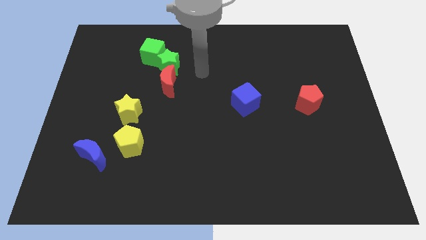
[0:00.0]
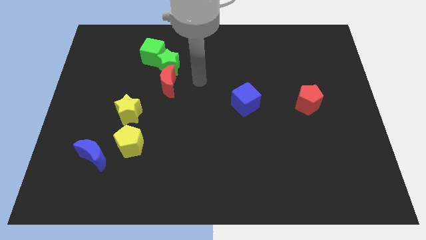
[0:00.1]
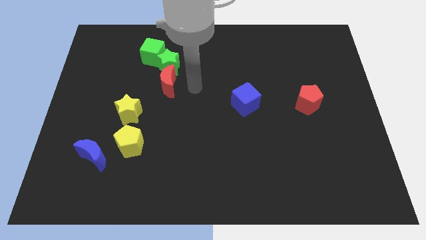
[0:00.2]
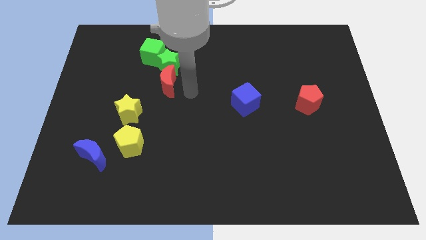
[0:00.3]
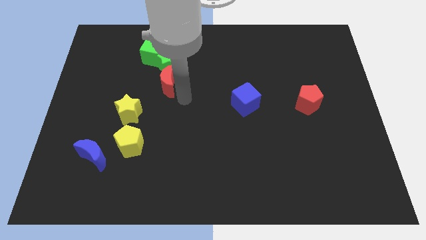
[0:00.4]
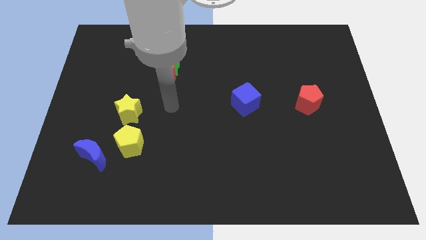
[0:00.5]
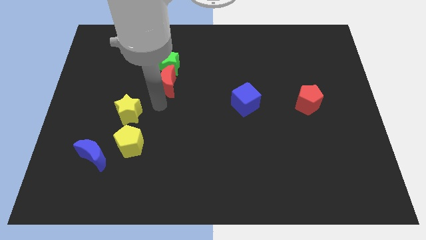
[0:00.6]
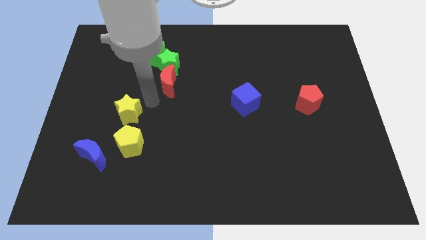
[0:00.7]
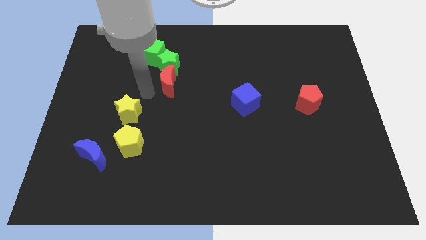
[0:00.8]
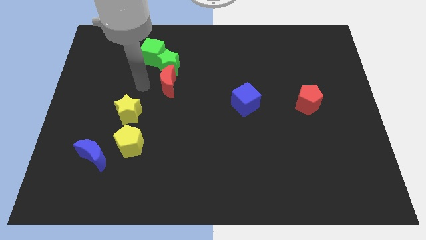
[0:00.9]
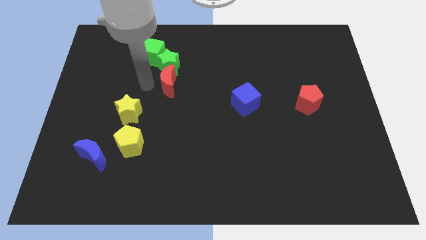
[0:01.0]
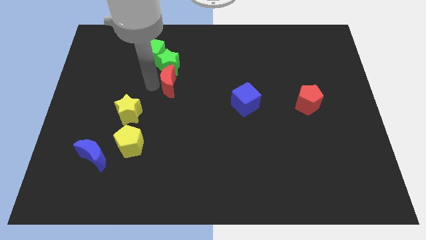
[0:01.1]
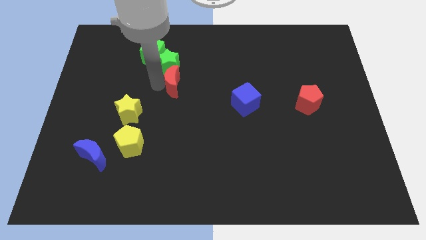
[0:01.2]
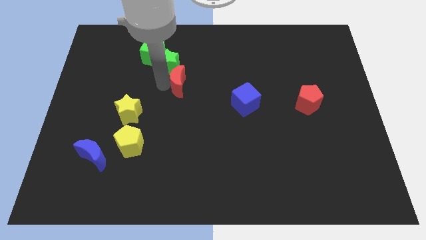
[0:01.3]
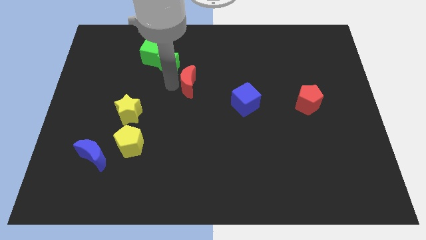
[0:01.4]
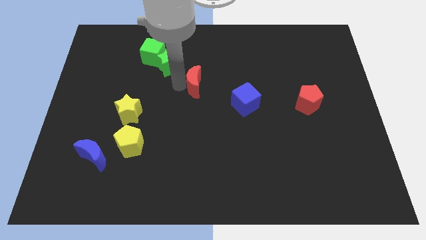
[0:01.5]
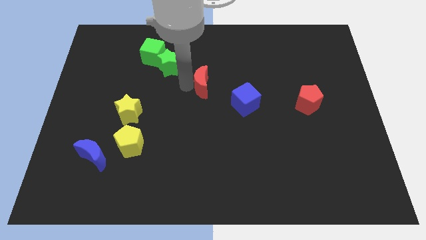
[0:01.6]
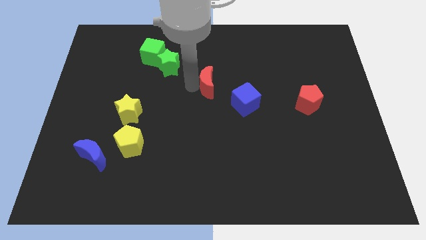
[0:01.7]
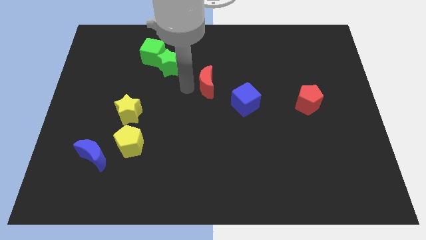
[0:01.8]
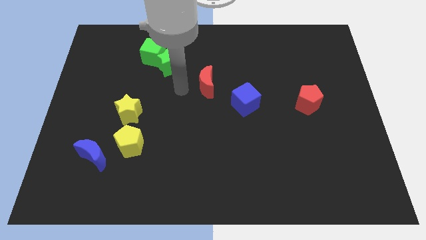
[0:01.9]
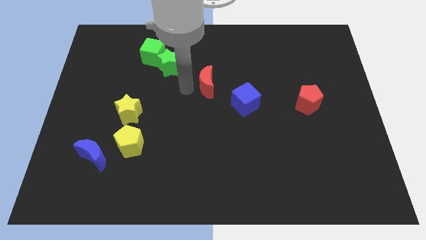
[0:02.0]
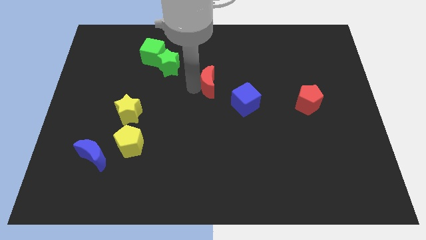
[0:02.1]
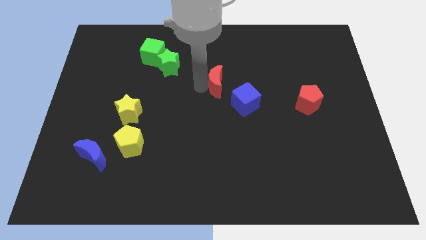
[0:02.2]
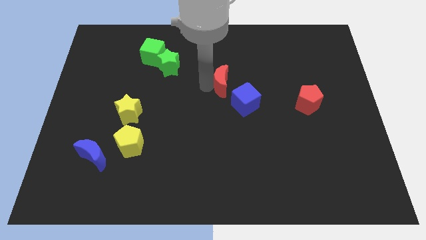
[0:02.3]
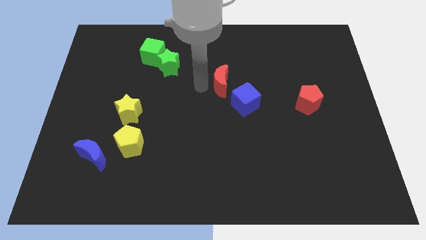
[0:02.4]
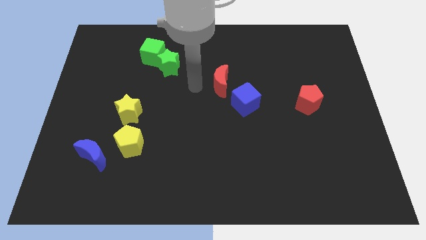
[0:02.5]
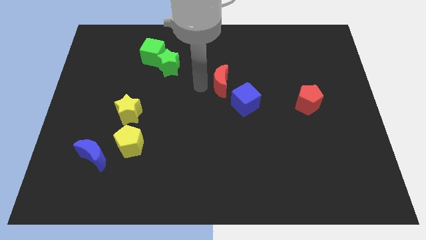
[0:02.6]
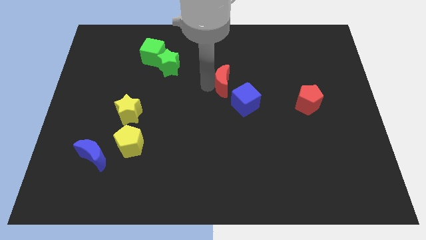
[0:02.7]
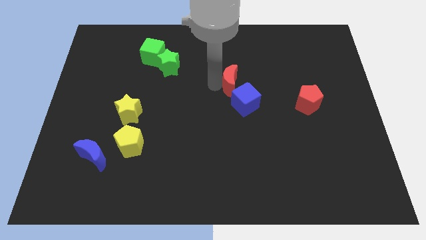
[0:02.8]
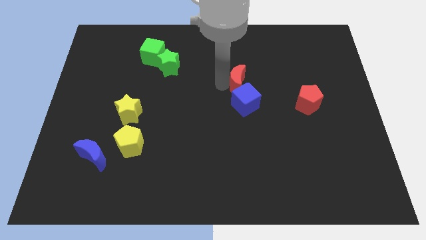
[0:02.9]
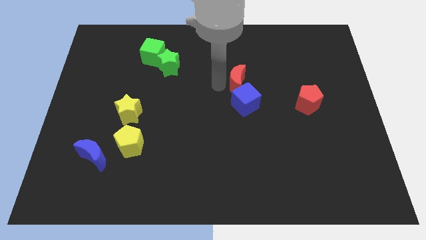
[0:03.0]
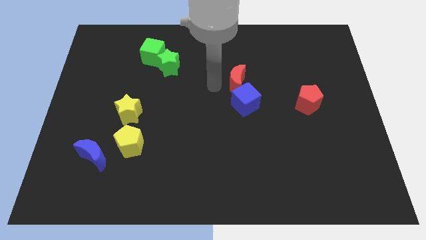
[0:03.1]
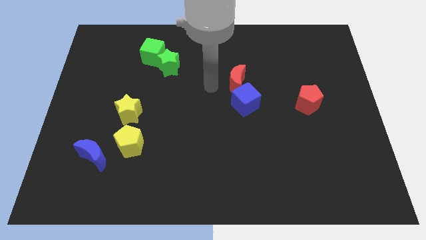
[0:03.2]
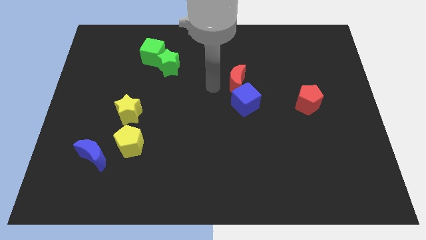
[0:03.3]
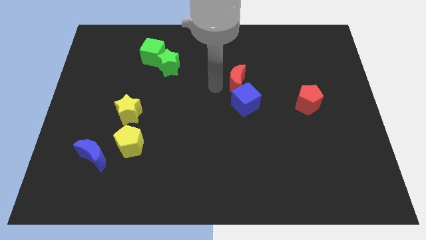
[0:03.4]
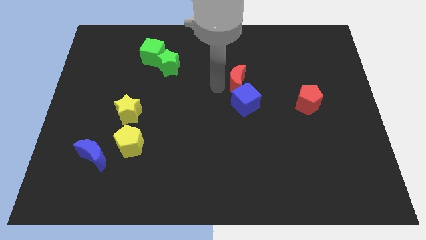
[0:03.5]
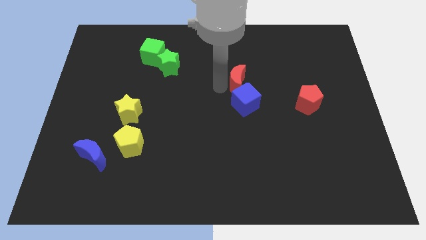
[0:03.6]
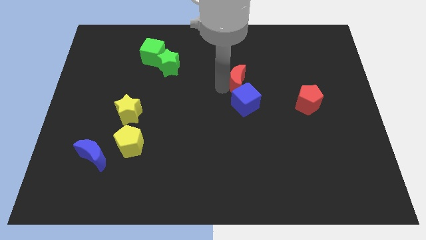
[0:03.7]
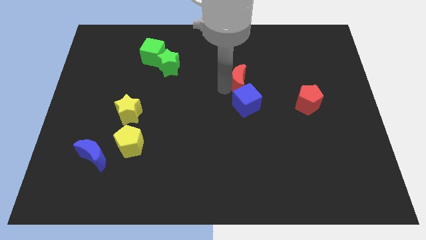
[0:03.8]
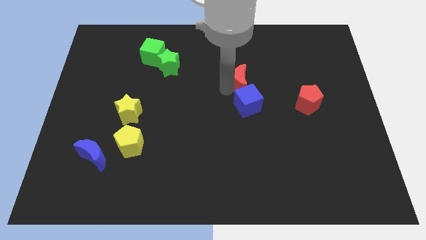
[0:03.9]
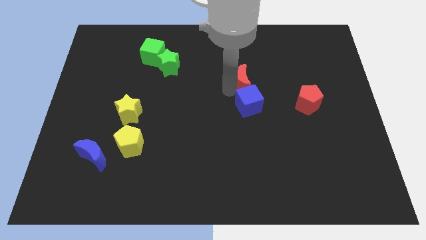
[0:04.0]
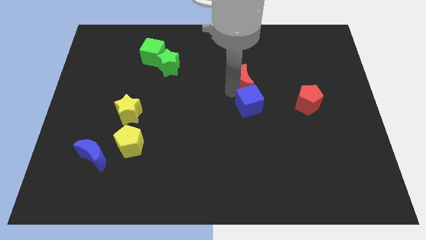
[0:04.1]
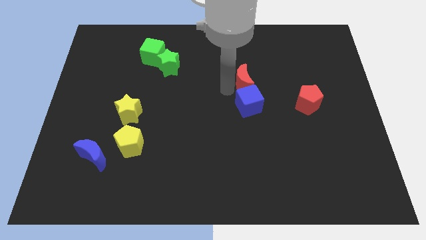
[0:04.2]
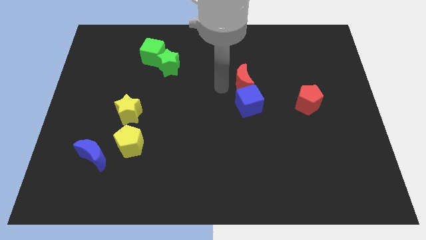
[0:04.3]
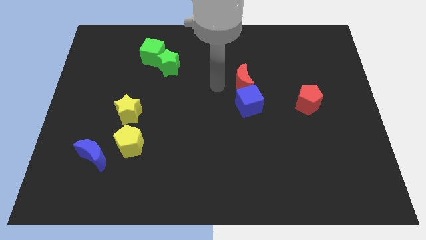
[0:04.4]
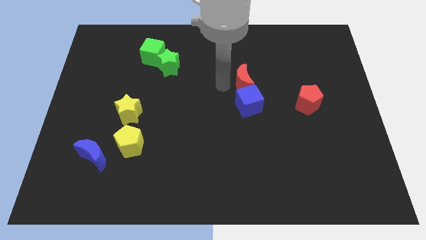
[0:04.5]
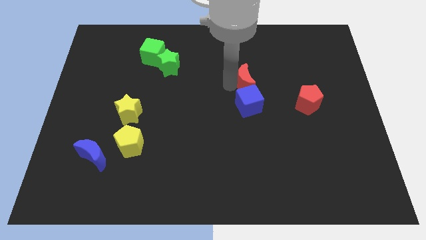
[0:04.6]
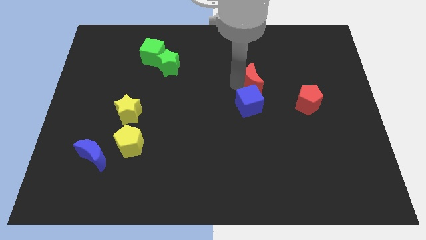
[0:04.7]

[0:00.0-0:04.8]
move the red moon right

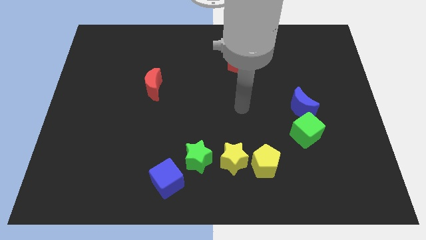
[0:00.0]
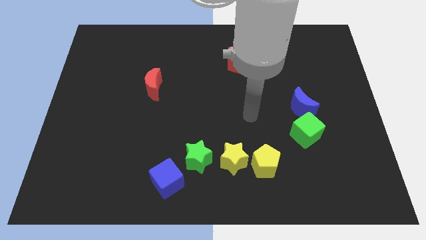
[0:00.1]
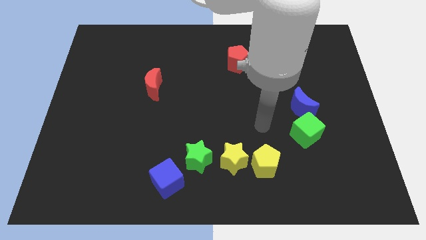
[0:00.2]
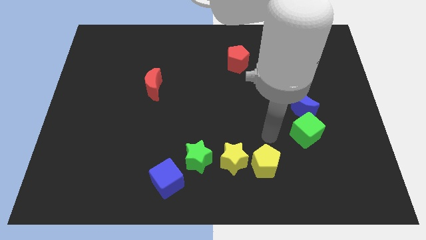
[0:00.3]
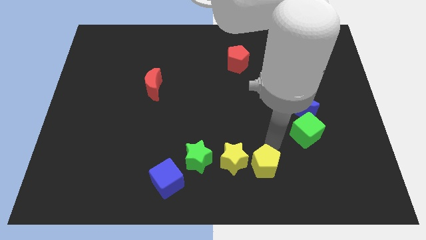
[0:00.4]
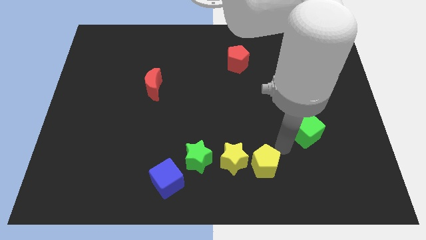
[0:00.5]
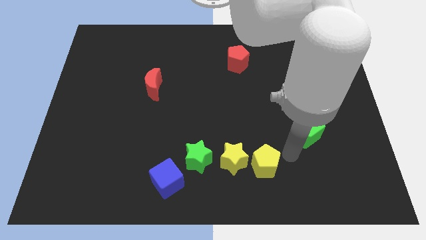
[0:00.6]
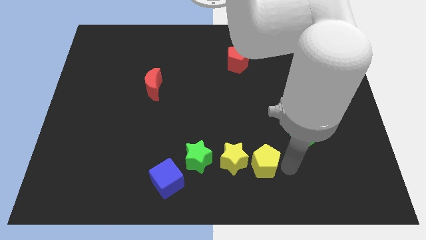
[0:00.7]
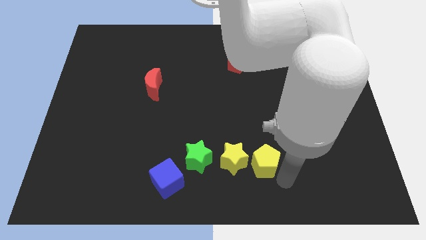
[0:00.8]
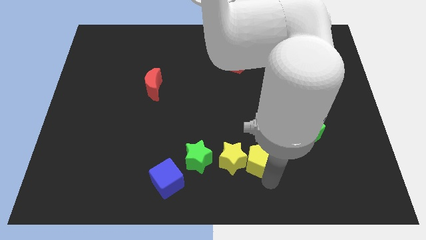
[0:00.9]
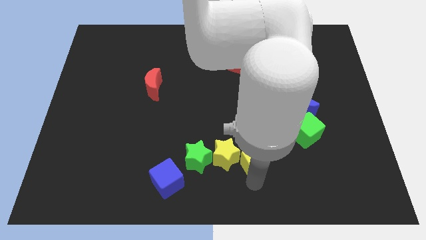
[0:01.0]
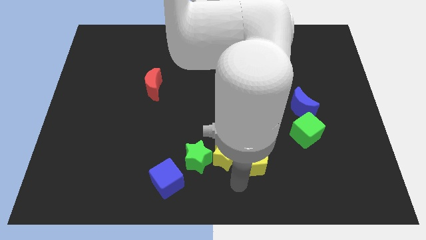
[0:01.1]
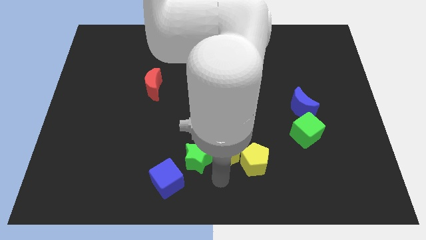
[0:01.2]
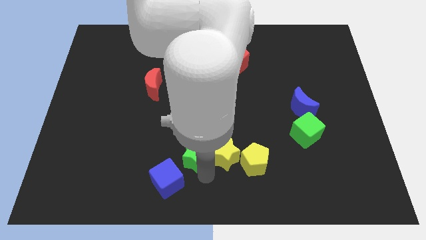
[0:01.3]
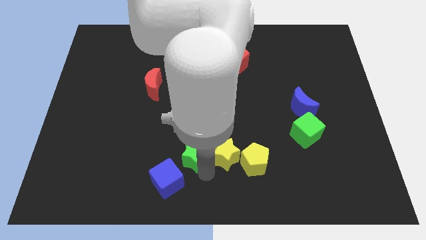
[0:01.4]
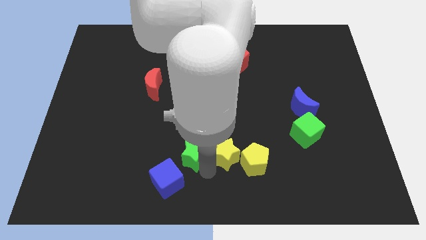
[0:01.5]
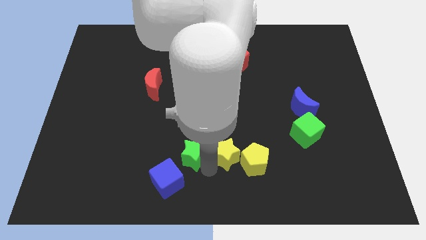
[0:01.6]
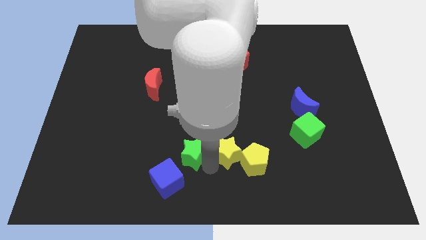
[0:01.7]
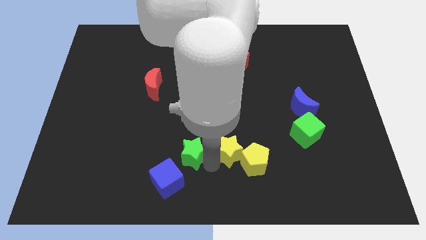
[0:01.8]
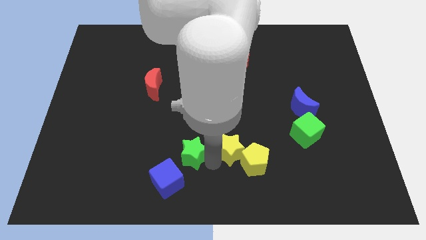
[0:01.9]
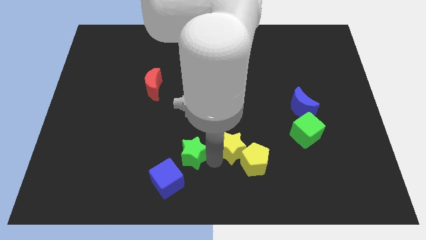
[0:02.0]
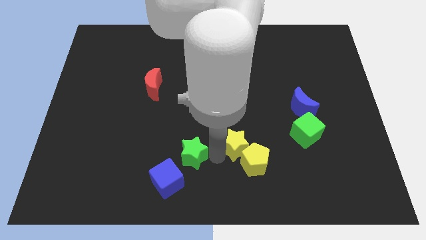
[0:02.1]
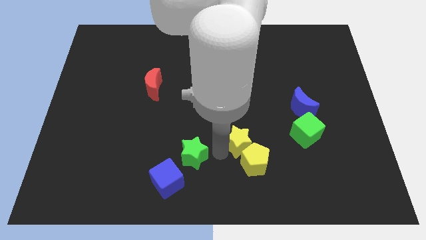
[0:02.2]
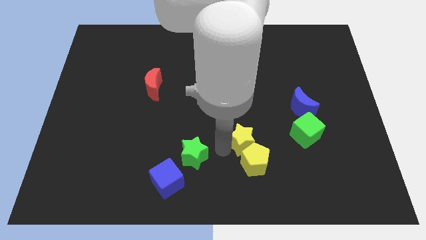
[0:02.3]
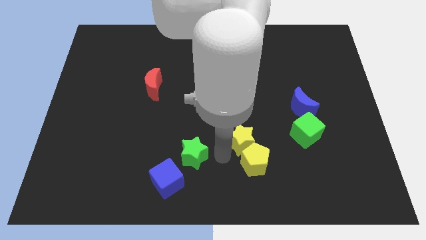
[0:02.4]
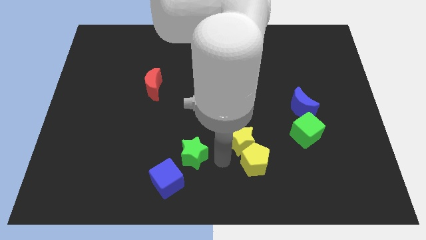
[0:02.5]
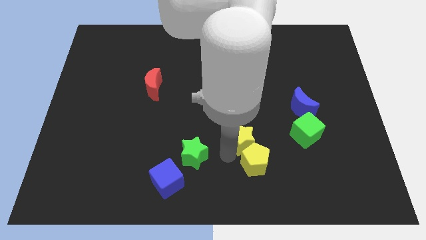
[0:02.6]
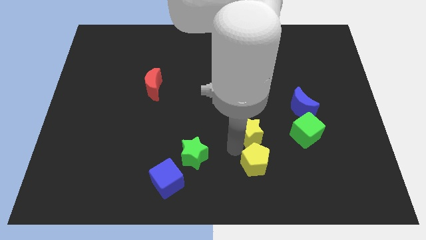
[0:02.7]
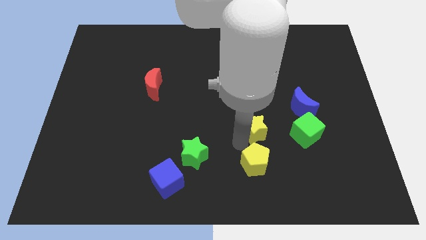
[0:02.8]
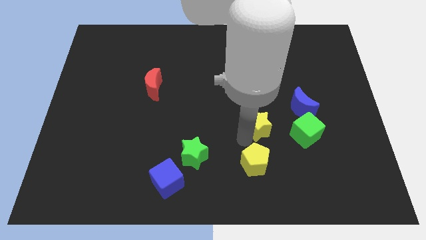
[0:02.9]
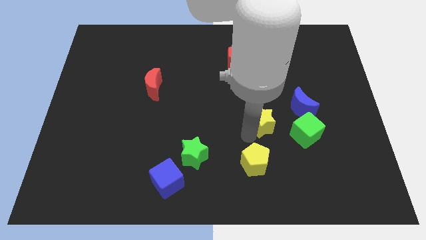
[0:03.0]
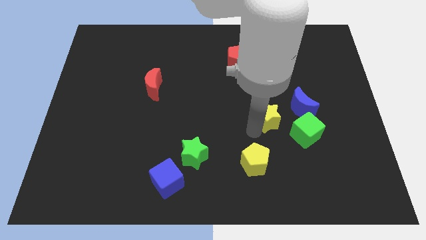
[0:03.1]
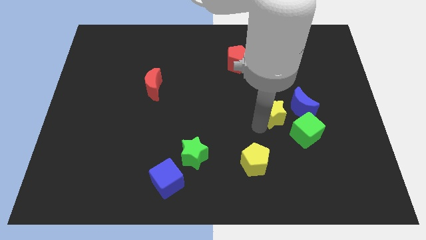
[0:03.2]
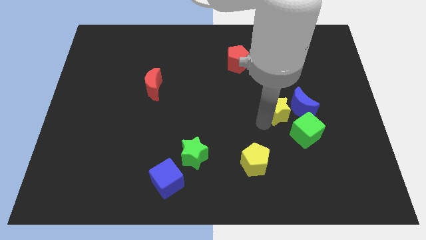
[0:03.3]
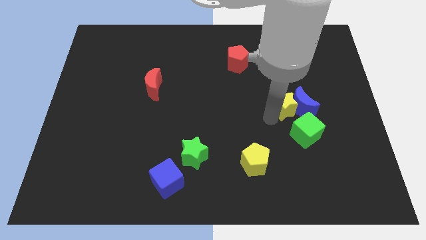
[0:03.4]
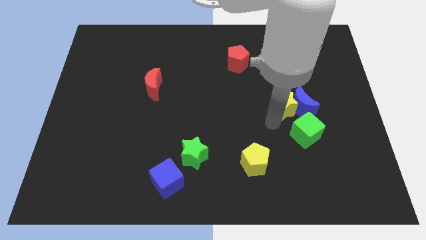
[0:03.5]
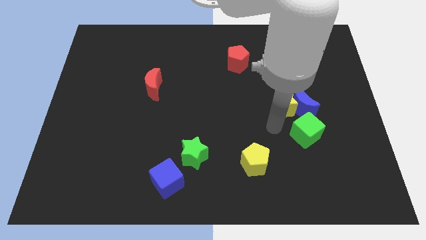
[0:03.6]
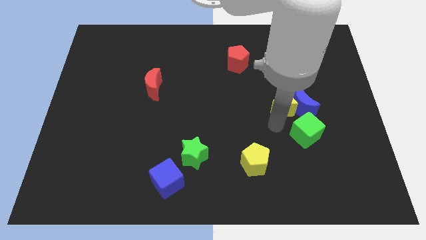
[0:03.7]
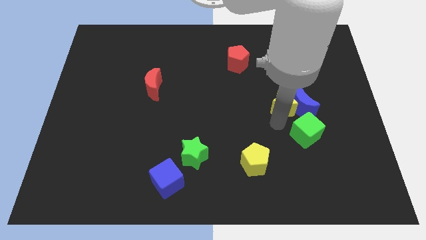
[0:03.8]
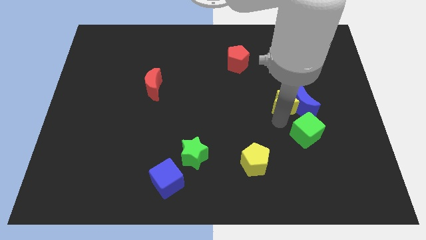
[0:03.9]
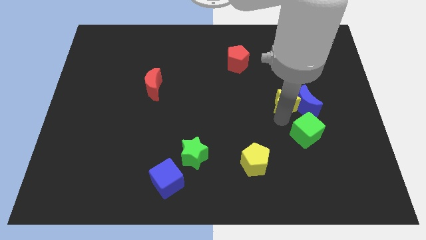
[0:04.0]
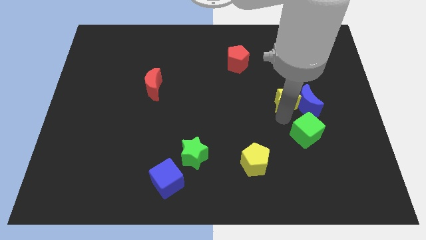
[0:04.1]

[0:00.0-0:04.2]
slide the yellow star up and right
